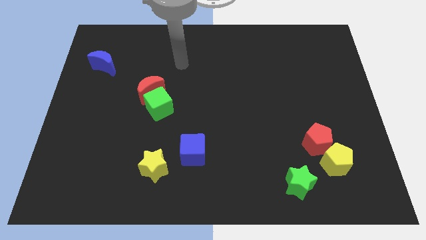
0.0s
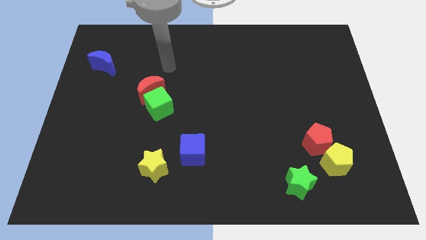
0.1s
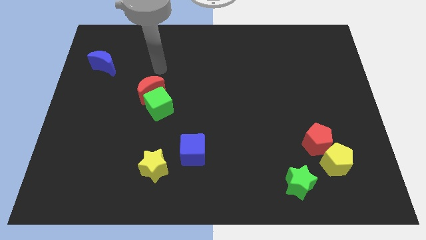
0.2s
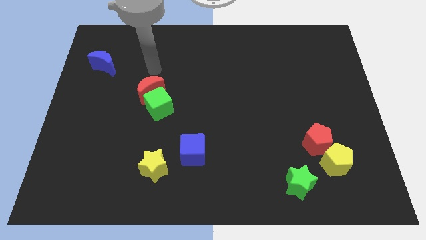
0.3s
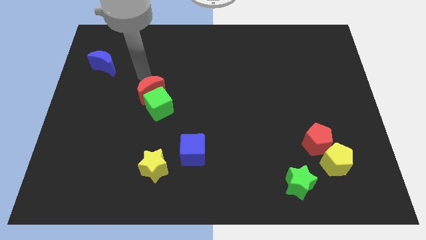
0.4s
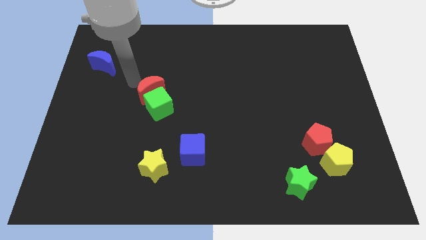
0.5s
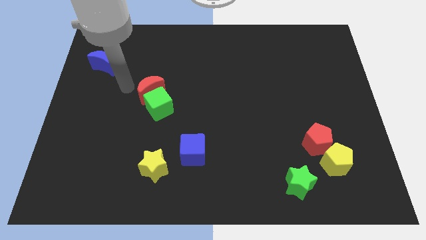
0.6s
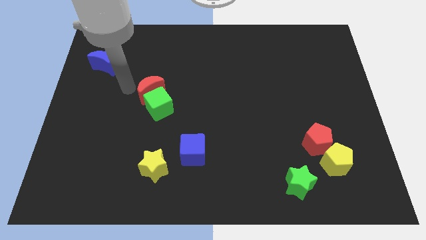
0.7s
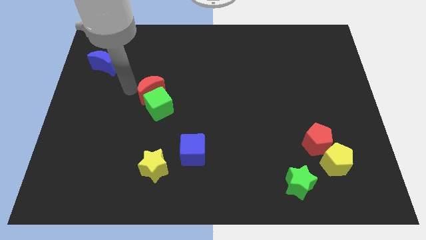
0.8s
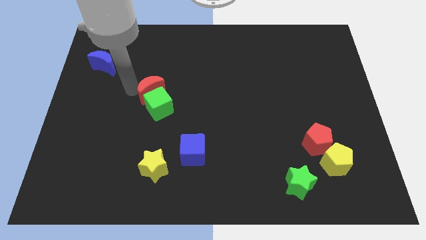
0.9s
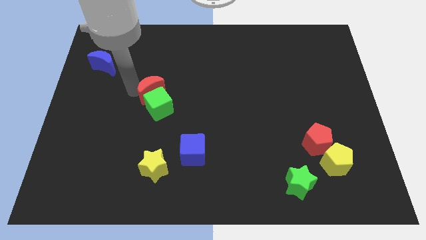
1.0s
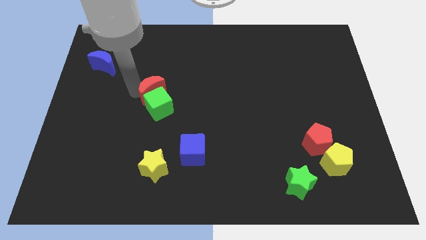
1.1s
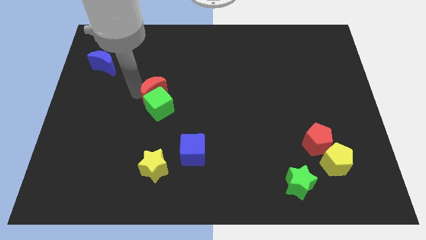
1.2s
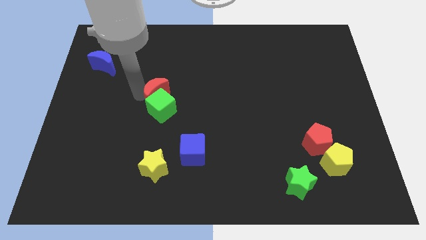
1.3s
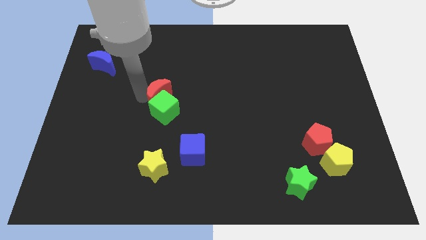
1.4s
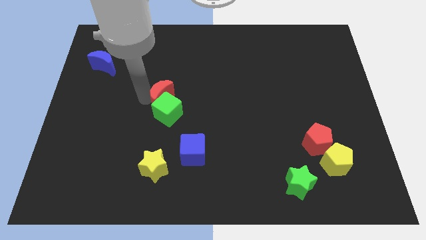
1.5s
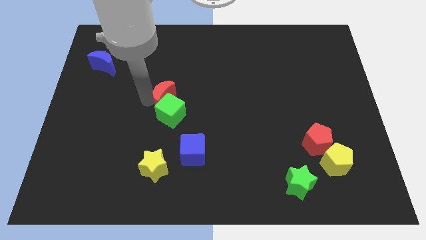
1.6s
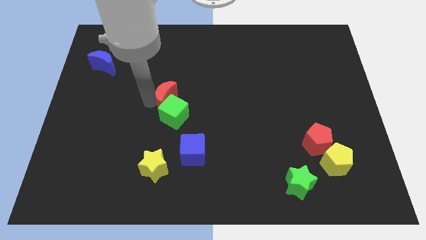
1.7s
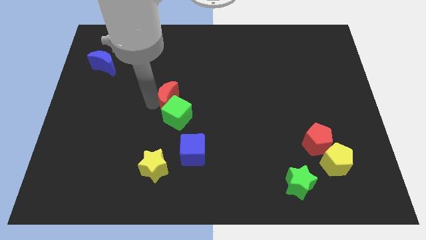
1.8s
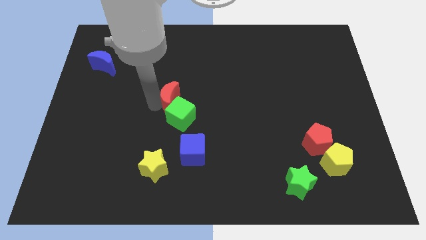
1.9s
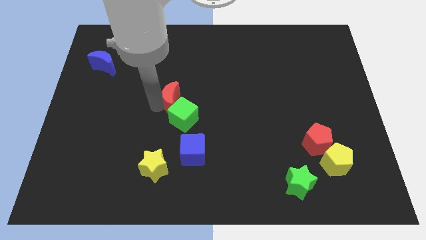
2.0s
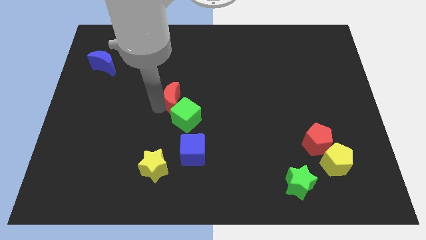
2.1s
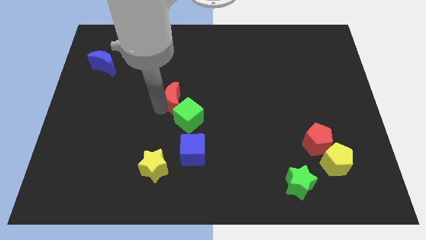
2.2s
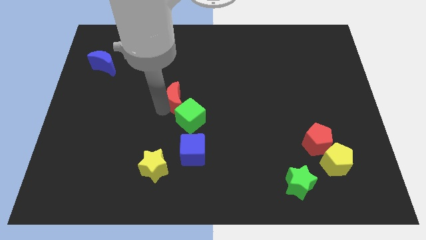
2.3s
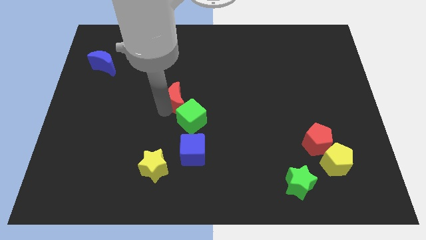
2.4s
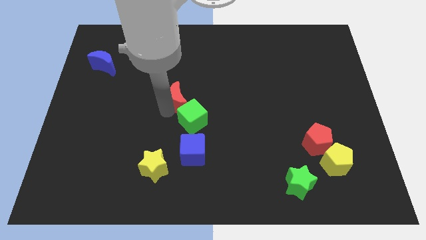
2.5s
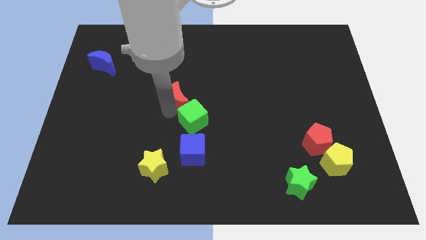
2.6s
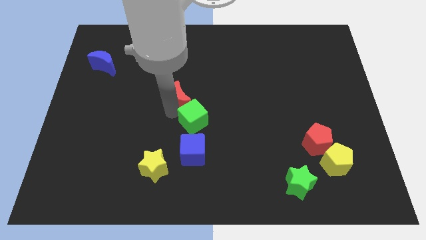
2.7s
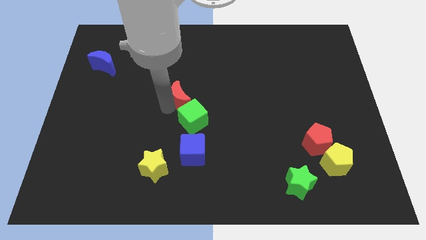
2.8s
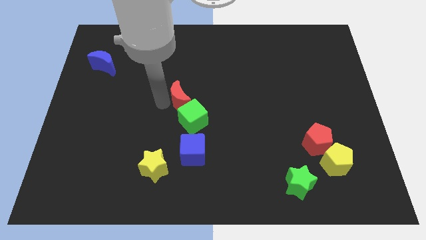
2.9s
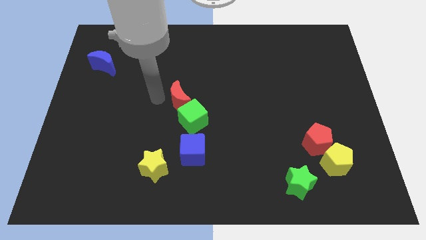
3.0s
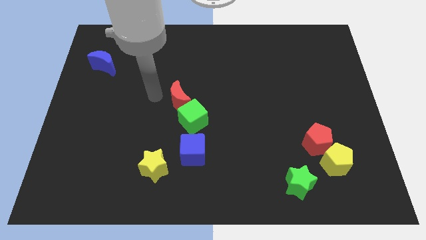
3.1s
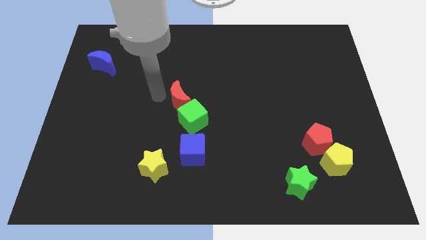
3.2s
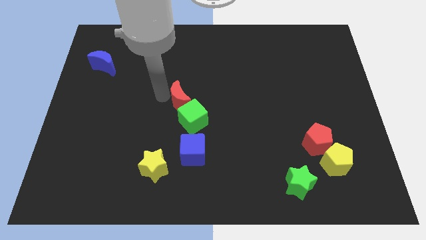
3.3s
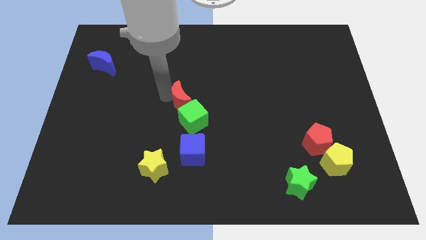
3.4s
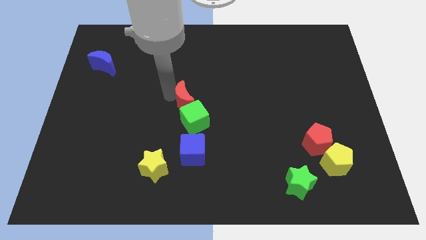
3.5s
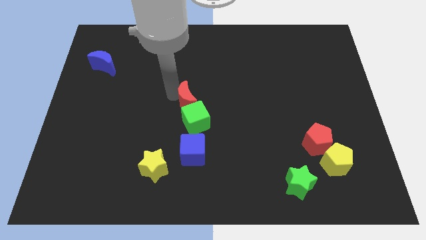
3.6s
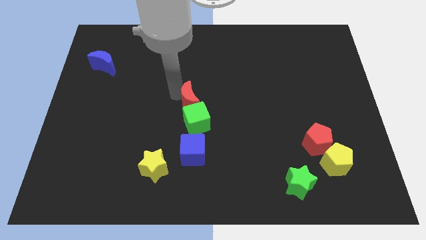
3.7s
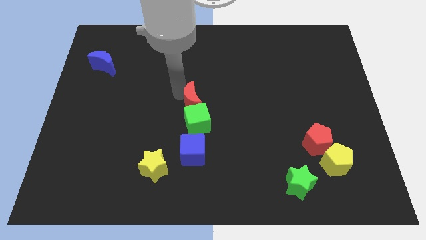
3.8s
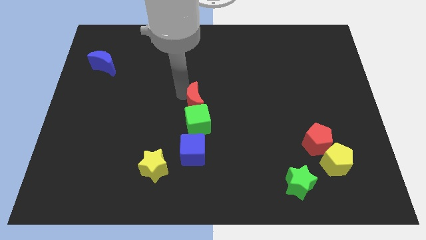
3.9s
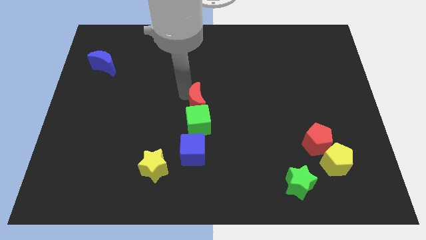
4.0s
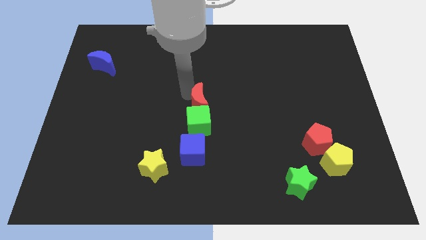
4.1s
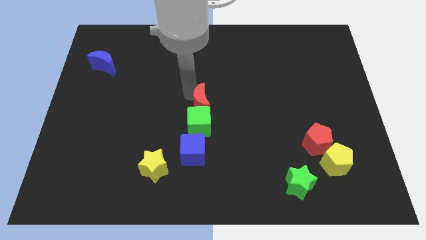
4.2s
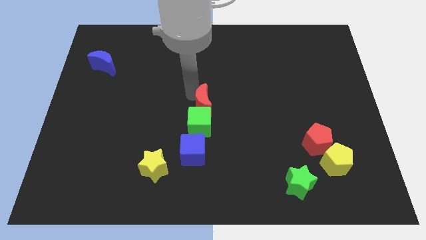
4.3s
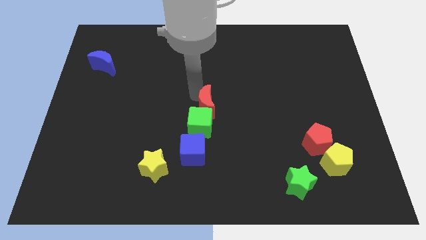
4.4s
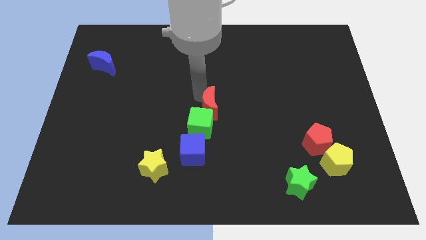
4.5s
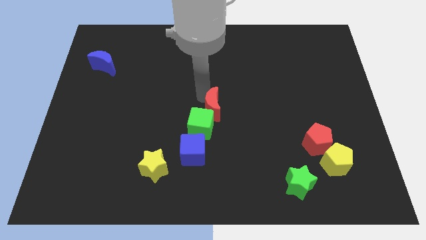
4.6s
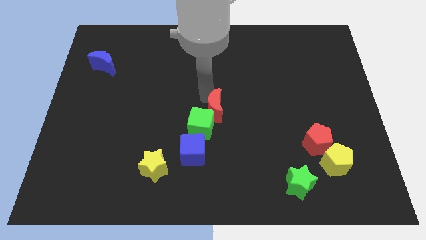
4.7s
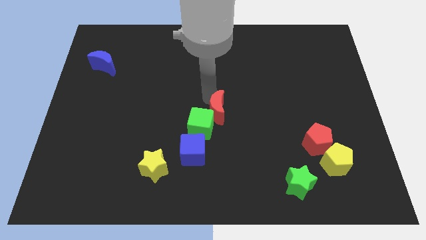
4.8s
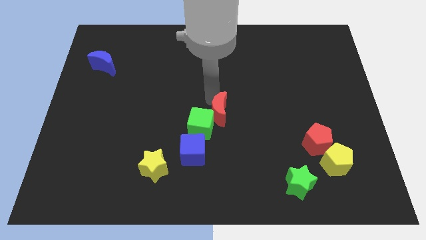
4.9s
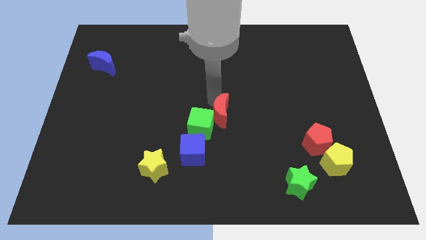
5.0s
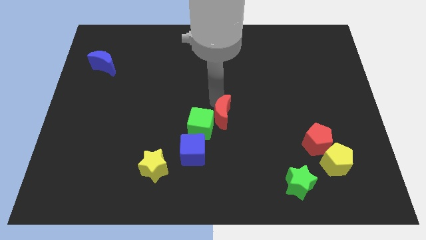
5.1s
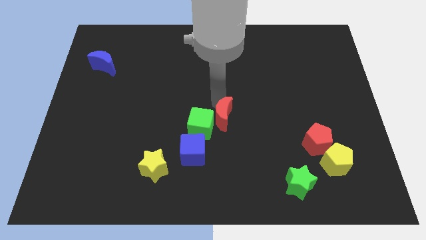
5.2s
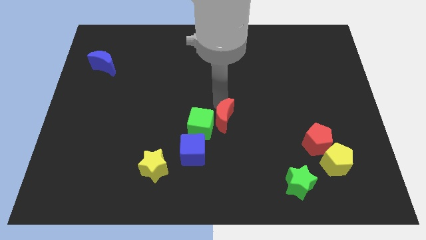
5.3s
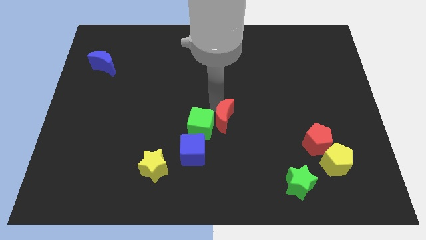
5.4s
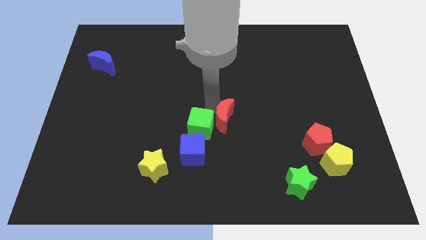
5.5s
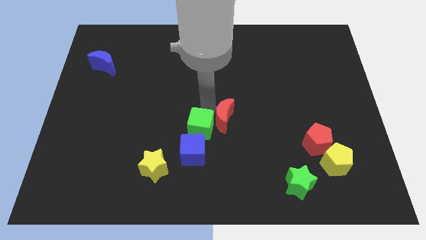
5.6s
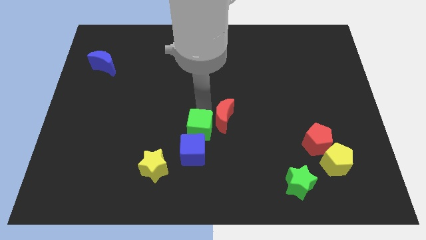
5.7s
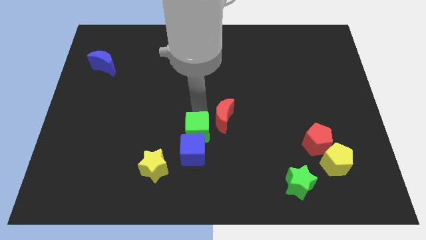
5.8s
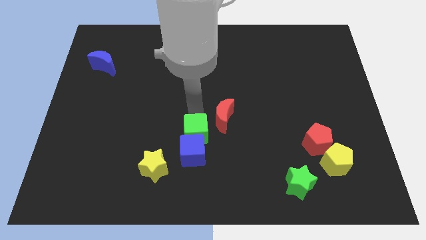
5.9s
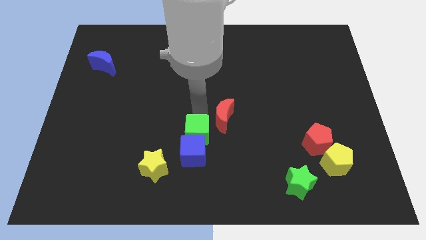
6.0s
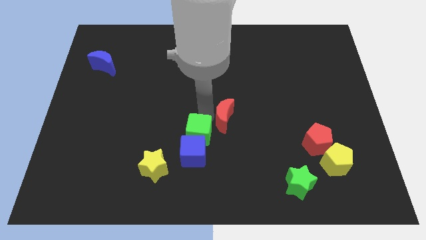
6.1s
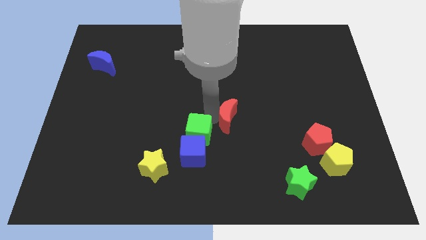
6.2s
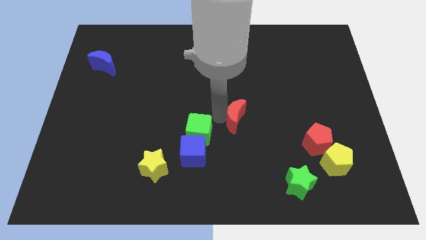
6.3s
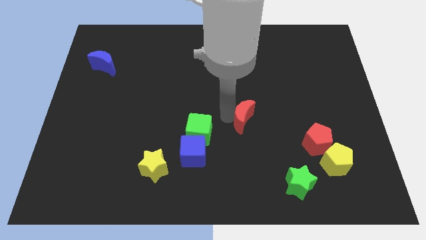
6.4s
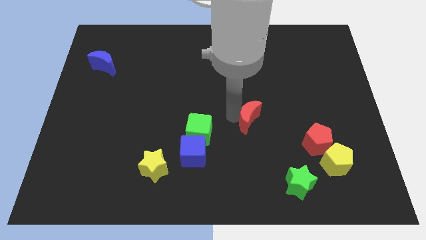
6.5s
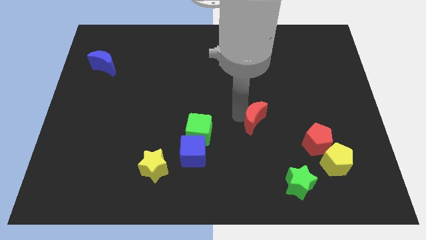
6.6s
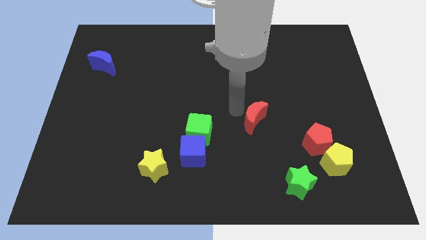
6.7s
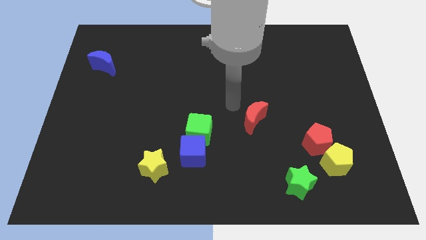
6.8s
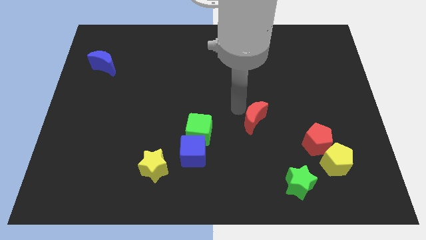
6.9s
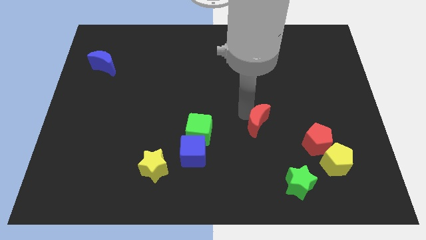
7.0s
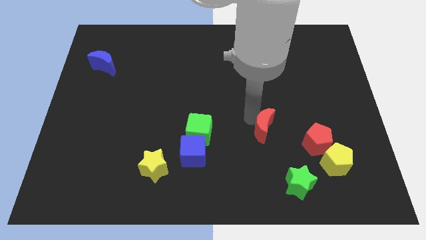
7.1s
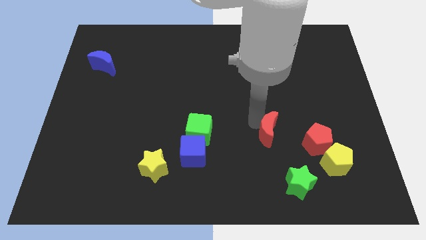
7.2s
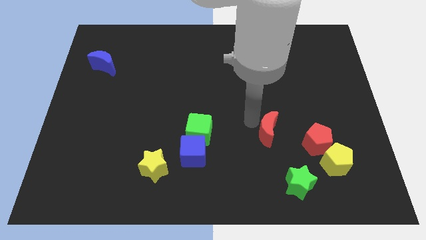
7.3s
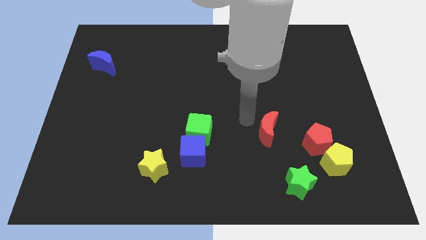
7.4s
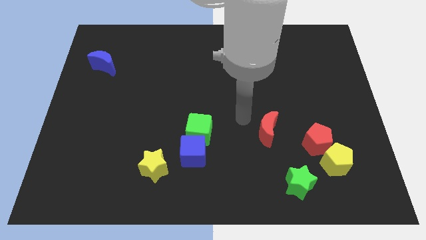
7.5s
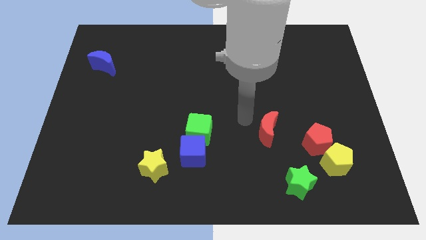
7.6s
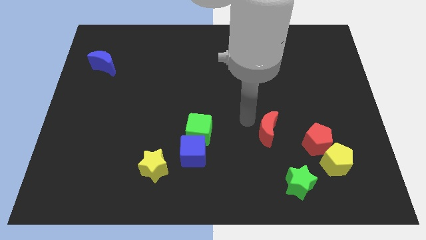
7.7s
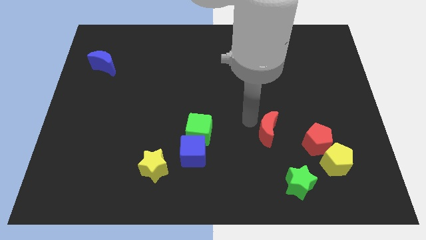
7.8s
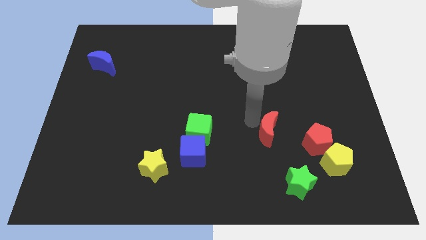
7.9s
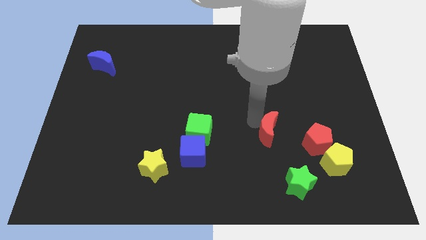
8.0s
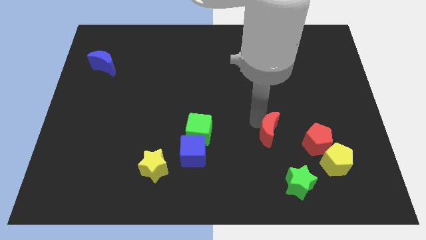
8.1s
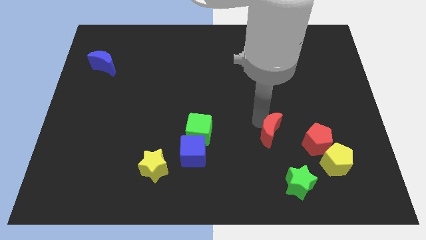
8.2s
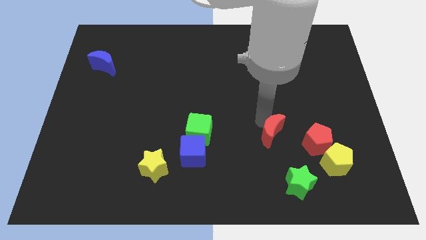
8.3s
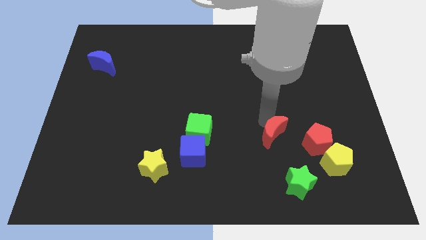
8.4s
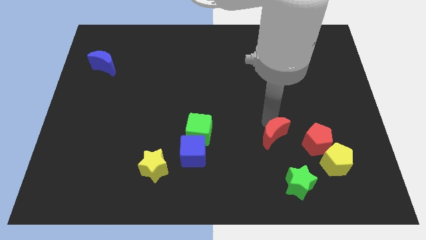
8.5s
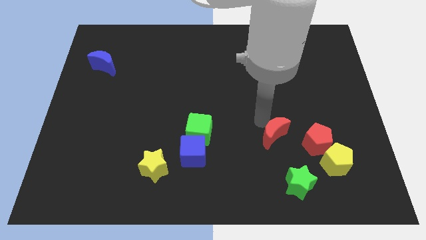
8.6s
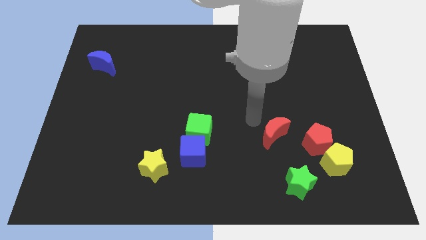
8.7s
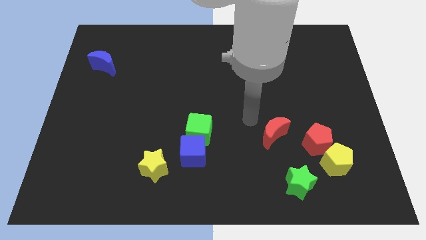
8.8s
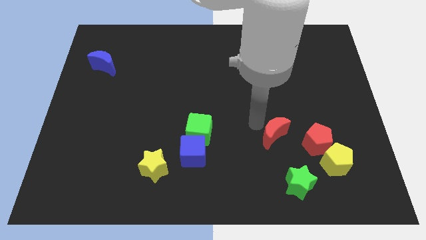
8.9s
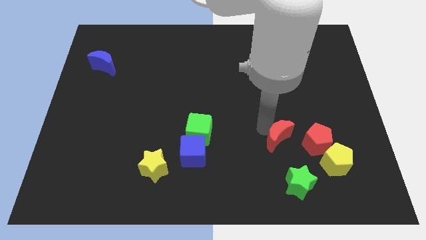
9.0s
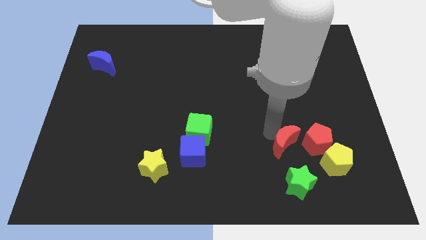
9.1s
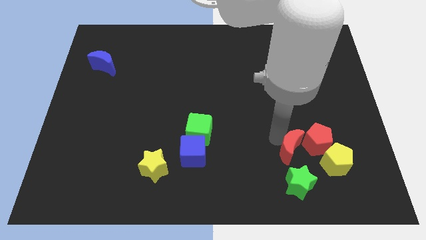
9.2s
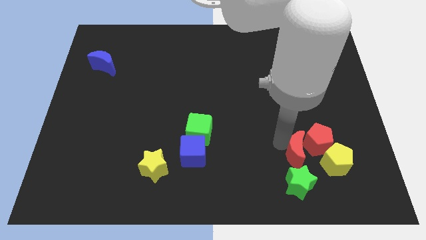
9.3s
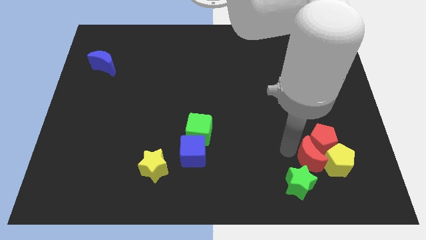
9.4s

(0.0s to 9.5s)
move the red moon close to the yellow pentagon
